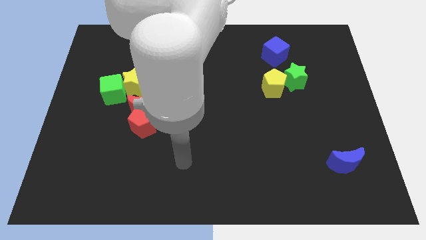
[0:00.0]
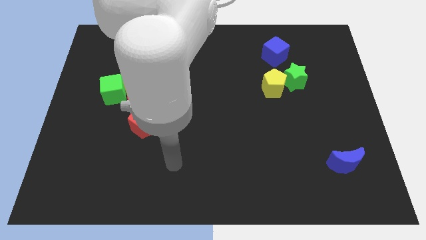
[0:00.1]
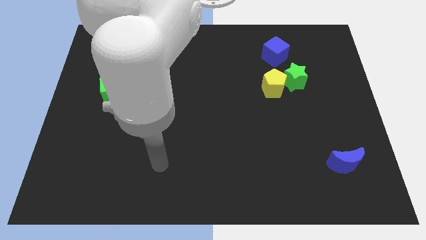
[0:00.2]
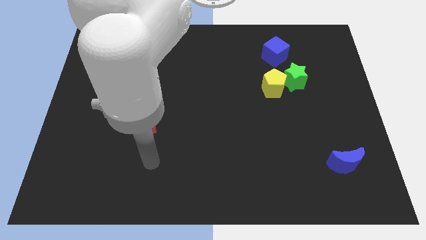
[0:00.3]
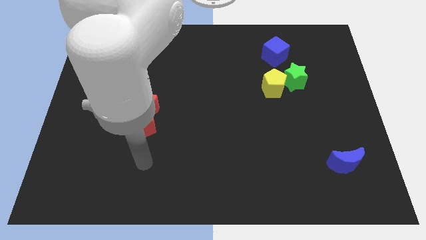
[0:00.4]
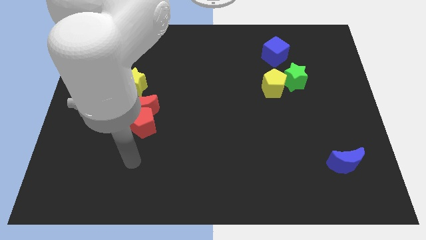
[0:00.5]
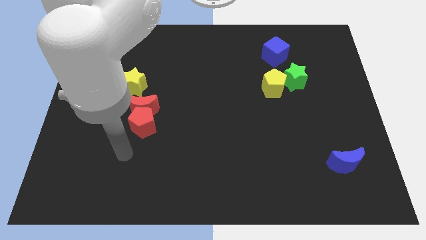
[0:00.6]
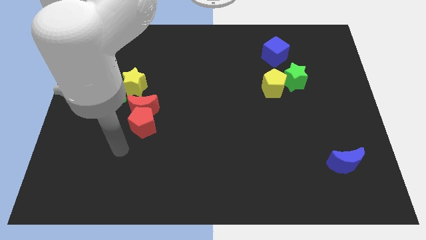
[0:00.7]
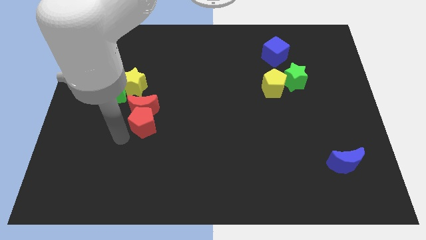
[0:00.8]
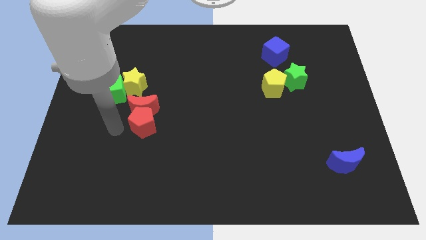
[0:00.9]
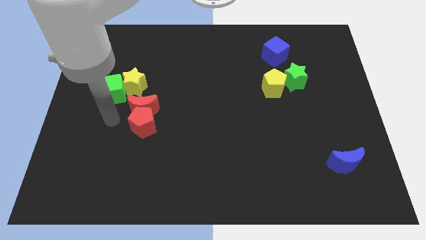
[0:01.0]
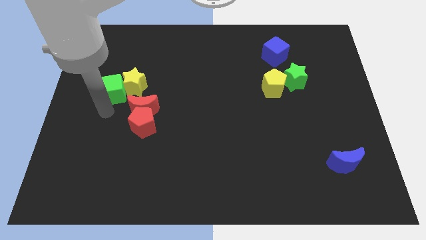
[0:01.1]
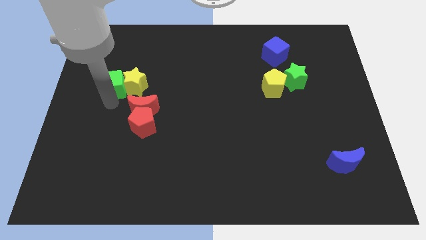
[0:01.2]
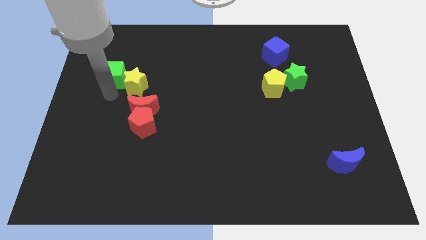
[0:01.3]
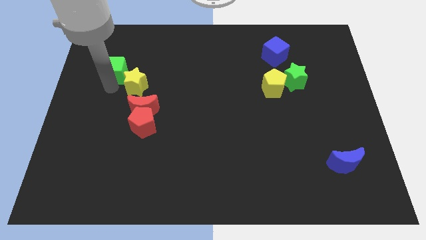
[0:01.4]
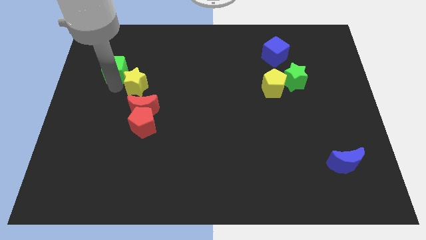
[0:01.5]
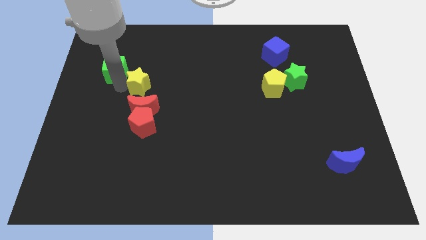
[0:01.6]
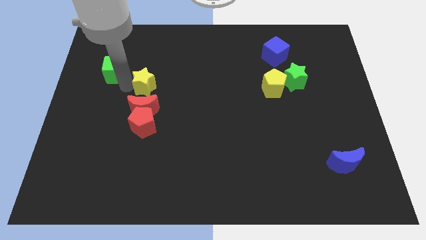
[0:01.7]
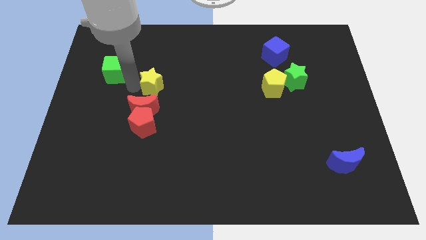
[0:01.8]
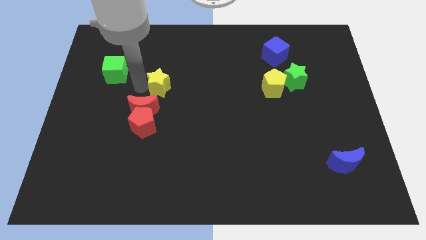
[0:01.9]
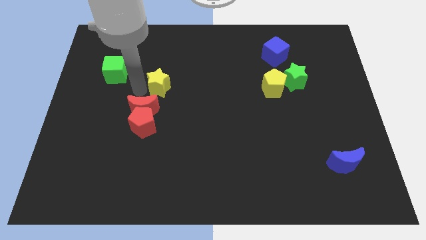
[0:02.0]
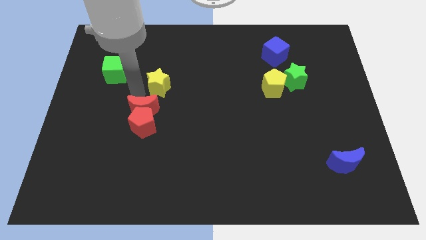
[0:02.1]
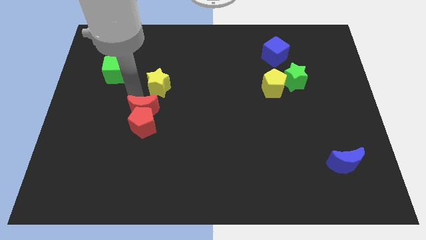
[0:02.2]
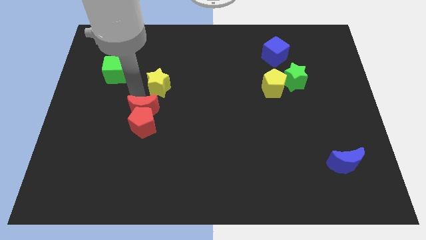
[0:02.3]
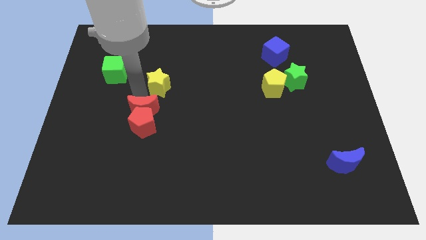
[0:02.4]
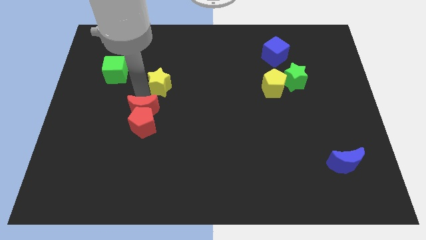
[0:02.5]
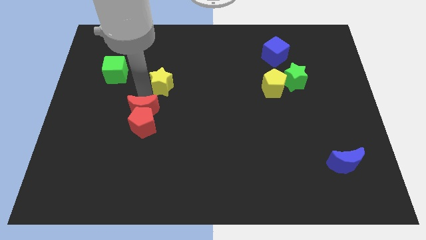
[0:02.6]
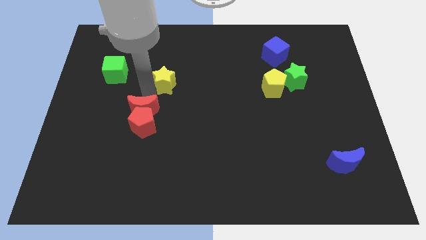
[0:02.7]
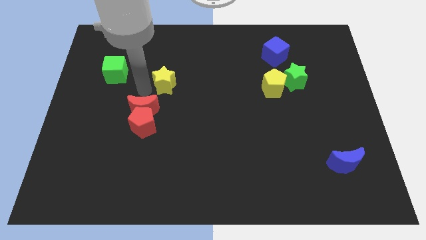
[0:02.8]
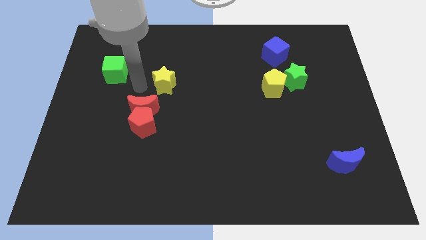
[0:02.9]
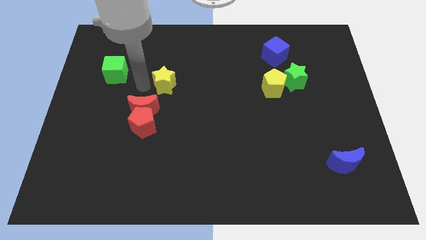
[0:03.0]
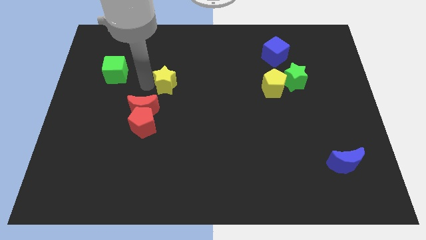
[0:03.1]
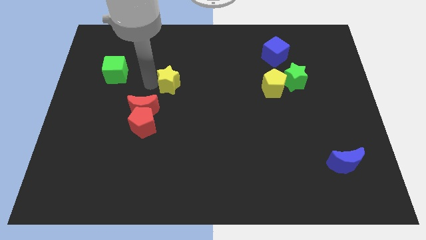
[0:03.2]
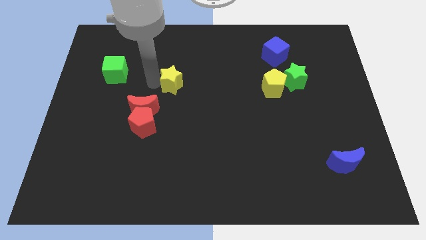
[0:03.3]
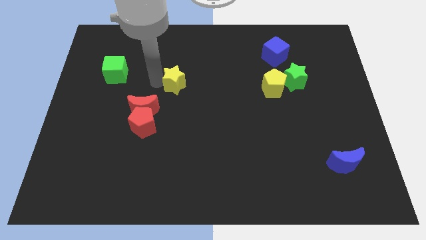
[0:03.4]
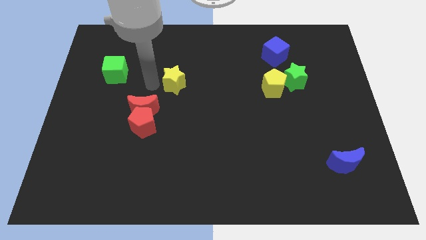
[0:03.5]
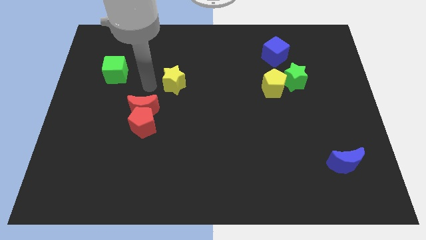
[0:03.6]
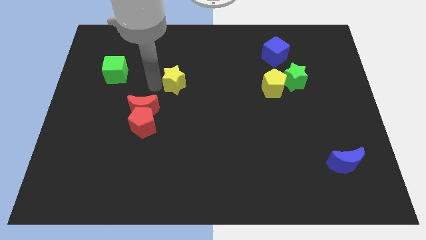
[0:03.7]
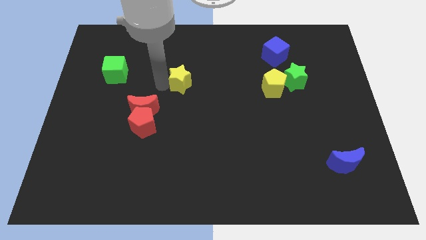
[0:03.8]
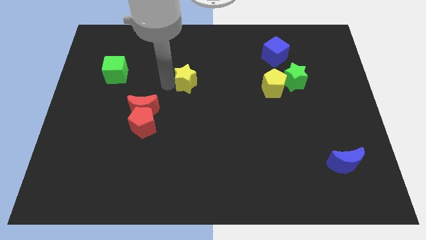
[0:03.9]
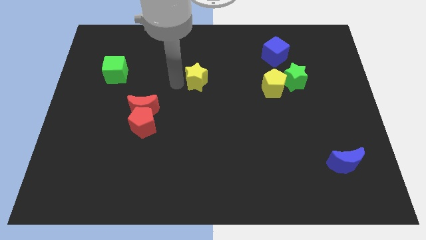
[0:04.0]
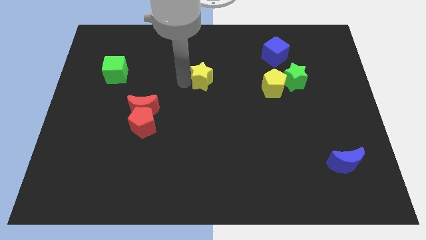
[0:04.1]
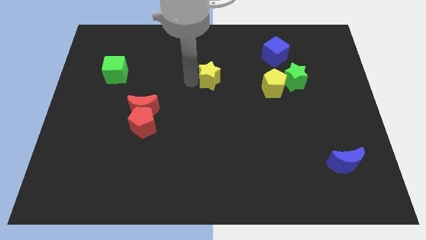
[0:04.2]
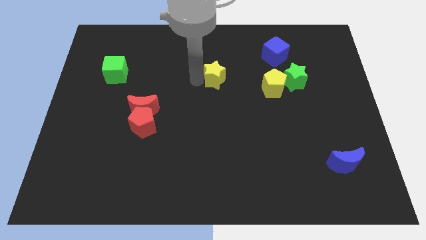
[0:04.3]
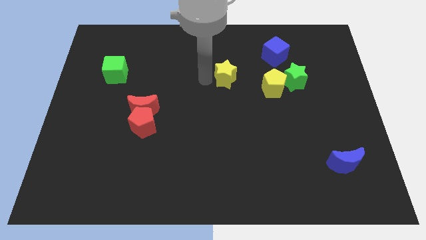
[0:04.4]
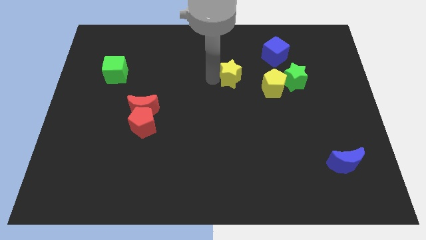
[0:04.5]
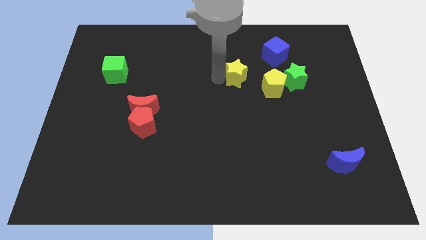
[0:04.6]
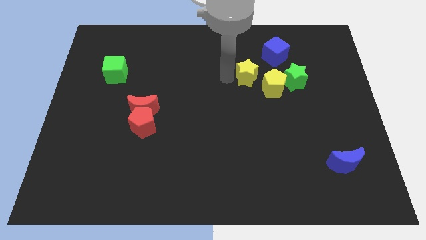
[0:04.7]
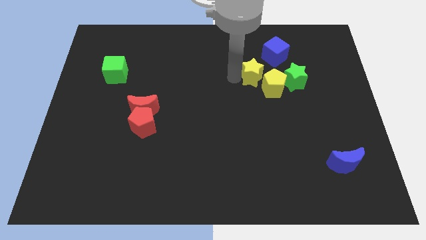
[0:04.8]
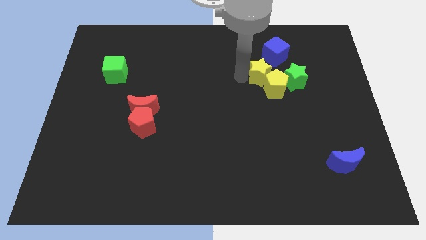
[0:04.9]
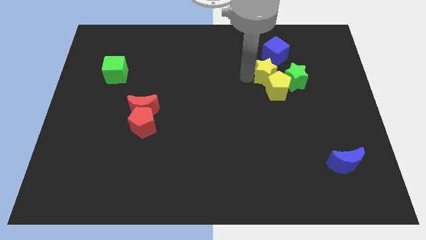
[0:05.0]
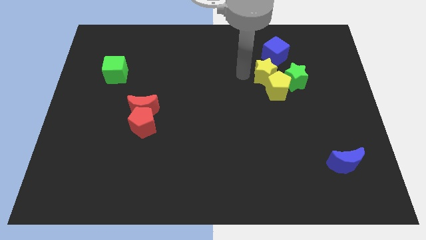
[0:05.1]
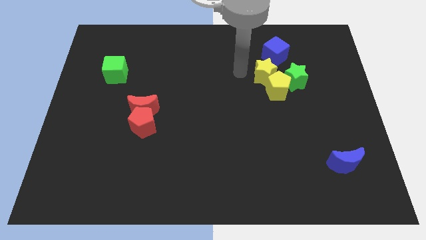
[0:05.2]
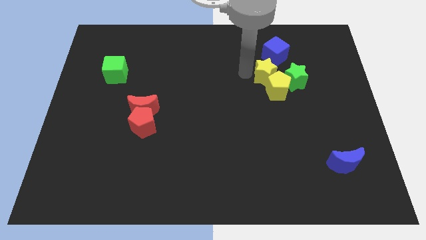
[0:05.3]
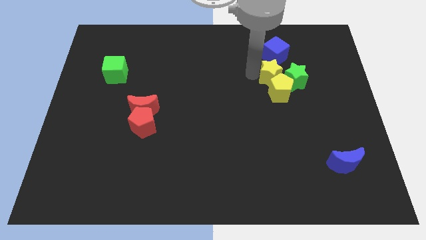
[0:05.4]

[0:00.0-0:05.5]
put the yellow star close to the green star

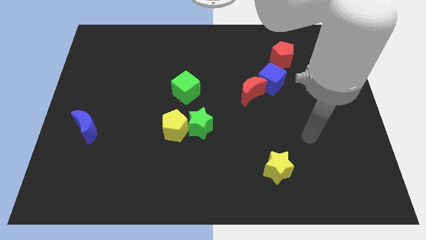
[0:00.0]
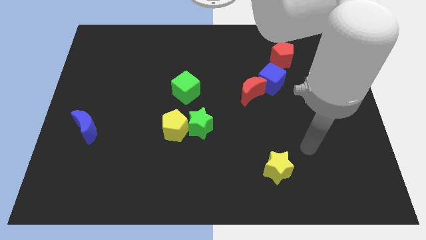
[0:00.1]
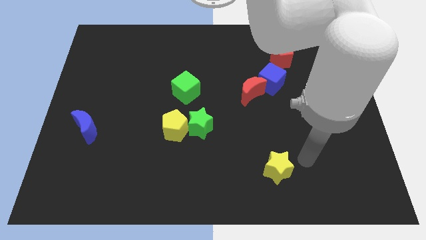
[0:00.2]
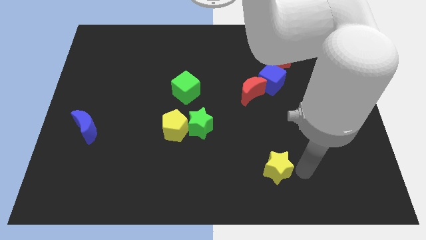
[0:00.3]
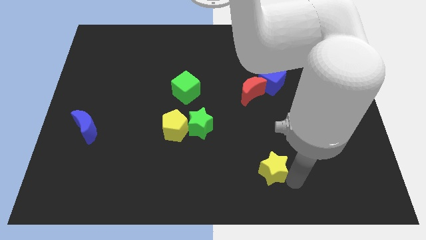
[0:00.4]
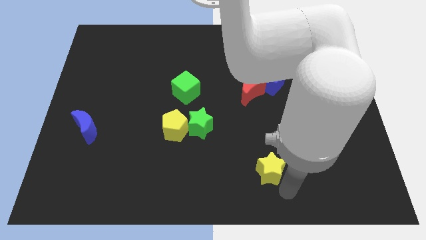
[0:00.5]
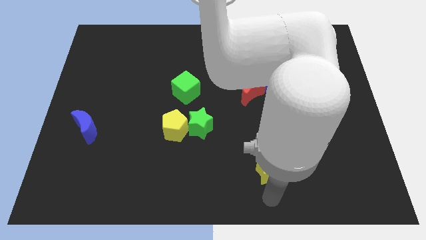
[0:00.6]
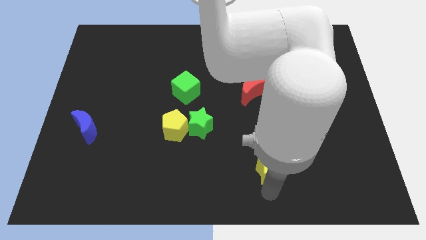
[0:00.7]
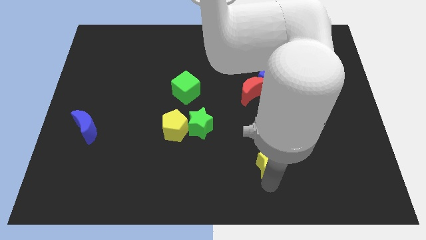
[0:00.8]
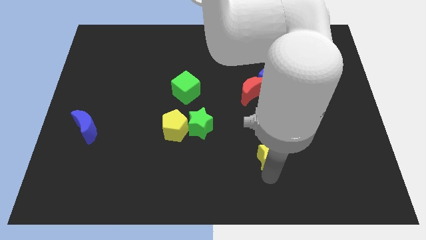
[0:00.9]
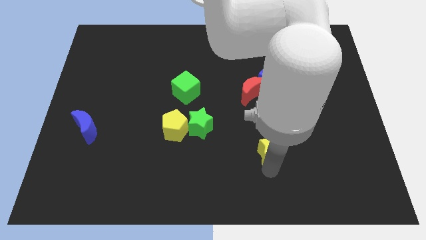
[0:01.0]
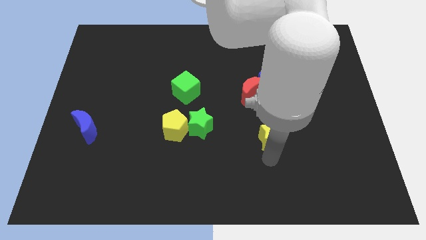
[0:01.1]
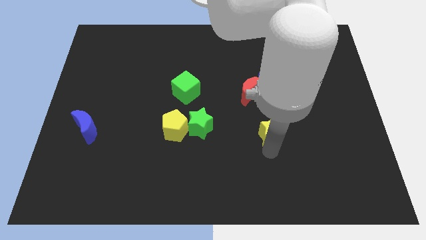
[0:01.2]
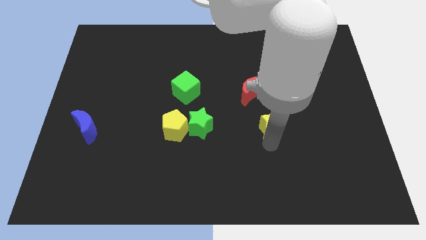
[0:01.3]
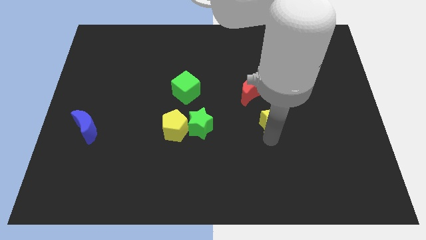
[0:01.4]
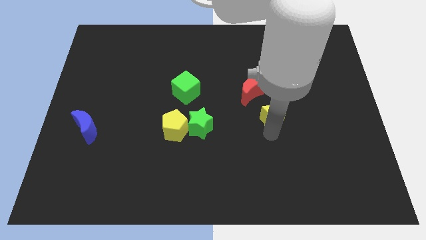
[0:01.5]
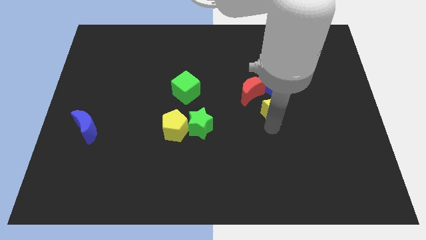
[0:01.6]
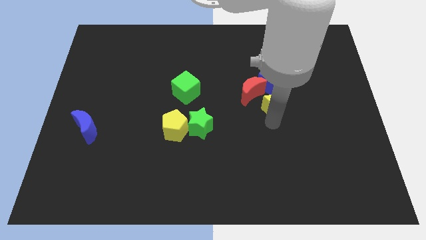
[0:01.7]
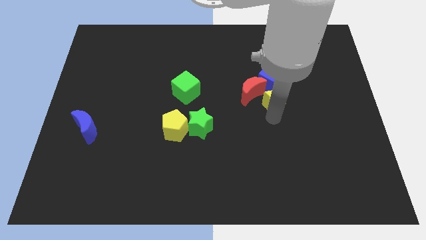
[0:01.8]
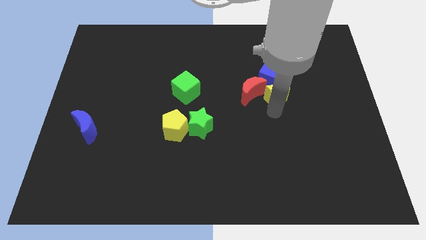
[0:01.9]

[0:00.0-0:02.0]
slide the yellow star towards the blue cube
